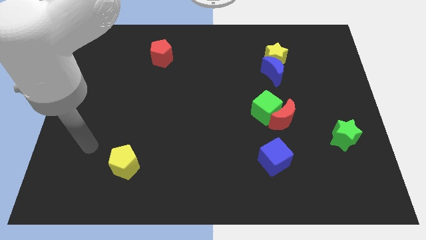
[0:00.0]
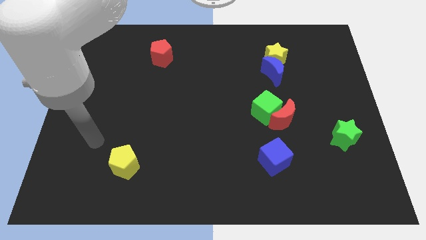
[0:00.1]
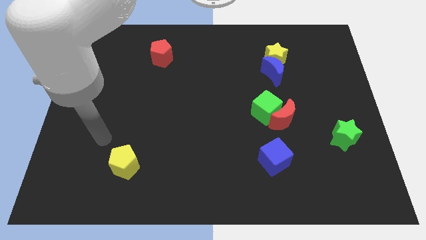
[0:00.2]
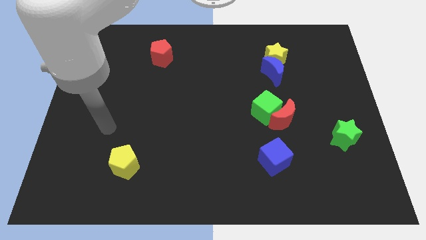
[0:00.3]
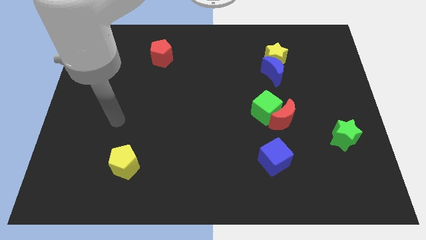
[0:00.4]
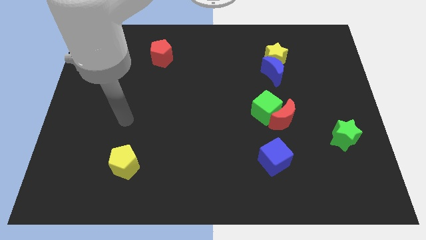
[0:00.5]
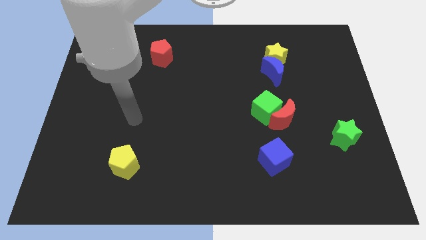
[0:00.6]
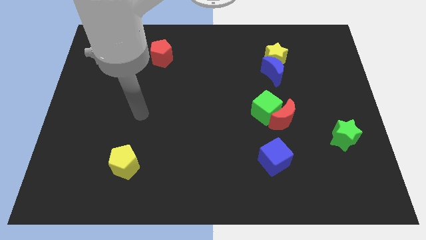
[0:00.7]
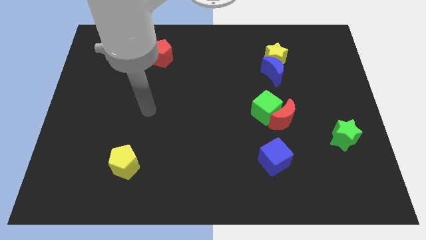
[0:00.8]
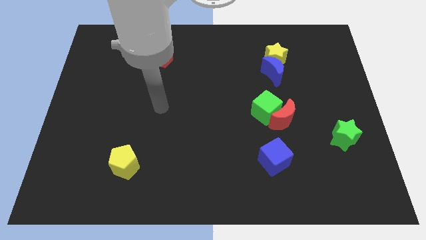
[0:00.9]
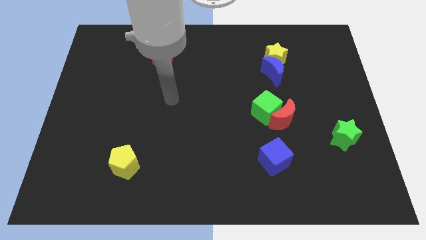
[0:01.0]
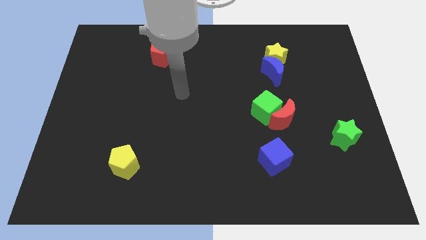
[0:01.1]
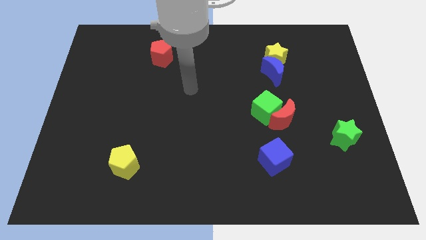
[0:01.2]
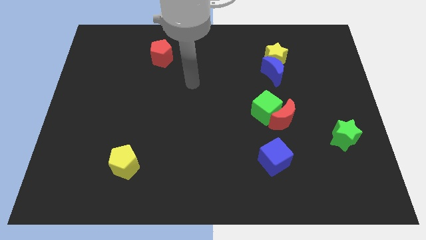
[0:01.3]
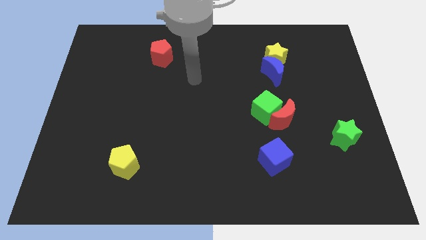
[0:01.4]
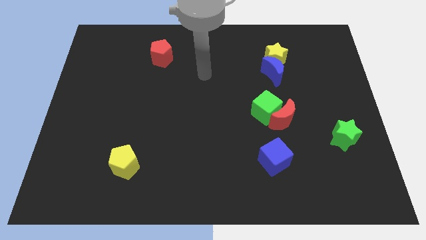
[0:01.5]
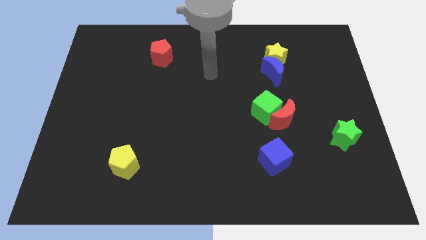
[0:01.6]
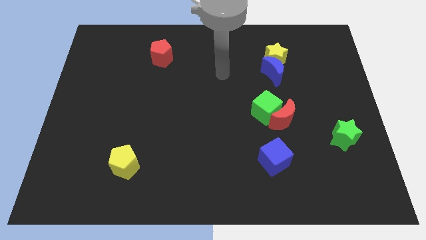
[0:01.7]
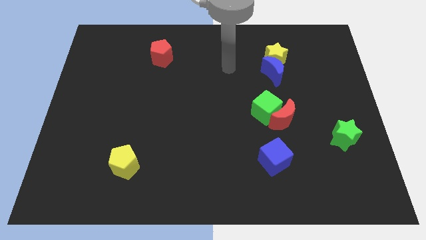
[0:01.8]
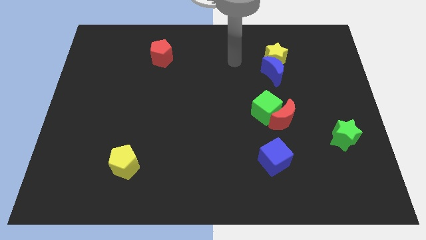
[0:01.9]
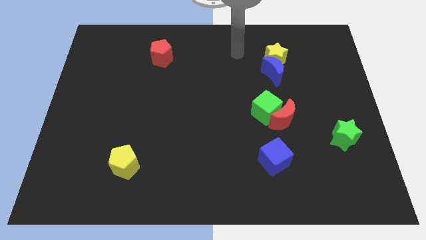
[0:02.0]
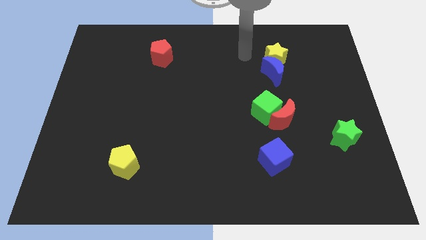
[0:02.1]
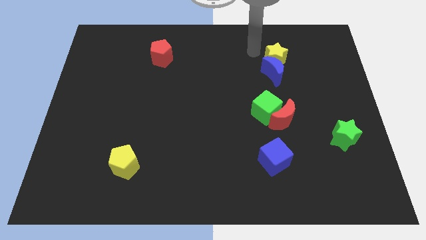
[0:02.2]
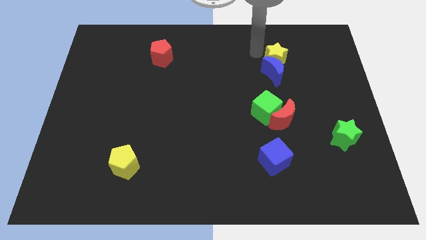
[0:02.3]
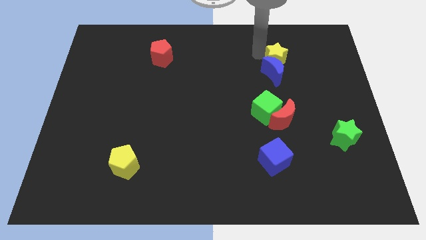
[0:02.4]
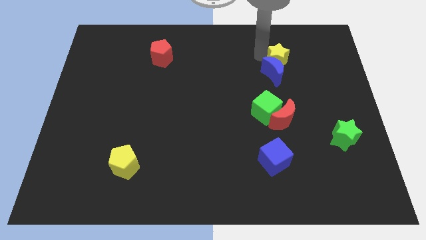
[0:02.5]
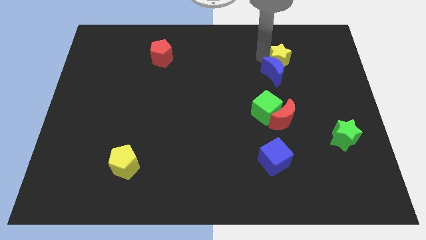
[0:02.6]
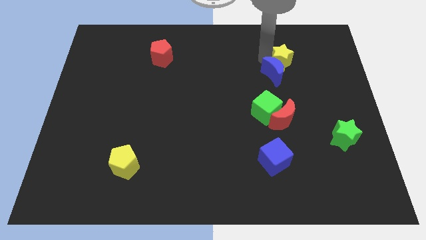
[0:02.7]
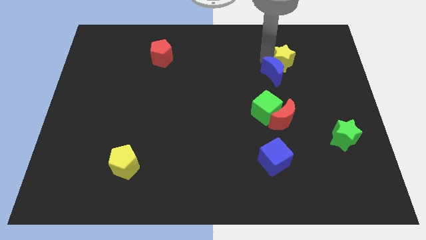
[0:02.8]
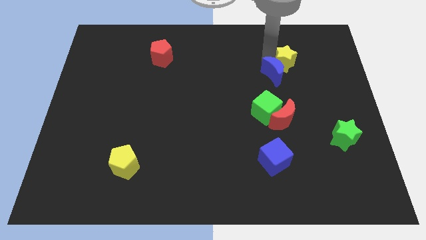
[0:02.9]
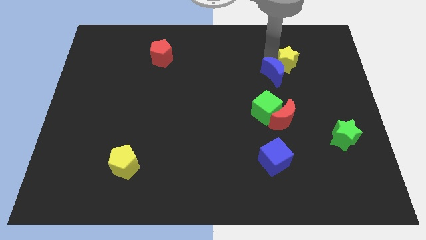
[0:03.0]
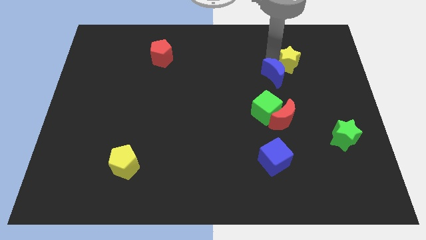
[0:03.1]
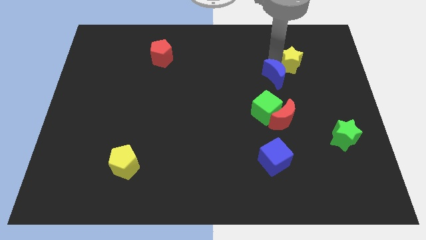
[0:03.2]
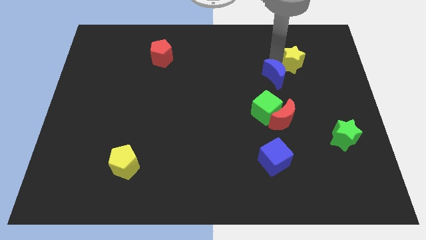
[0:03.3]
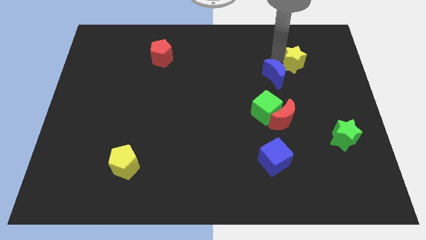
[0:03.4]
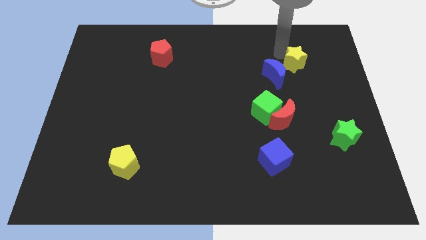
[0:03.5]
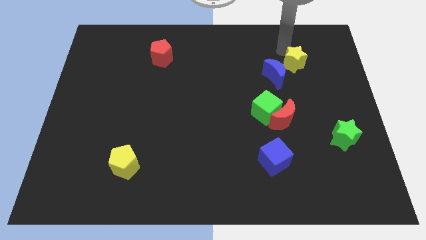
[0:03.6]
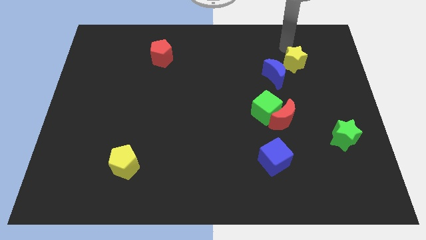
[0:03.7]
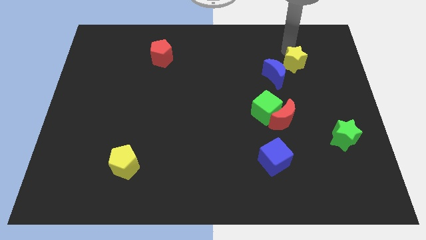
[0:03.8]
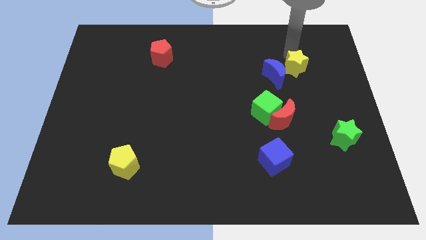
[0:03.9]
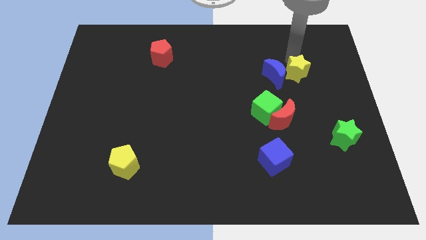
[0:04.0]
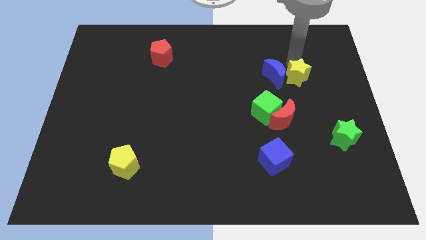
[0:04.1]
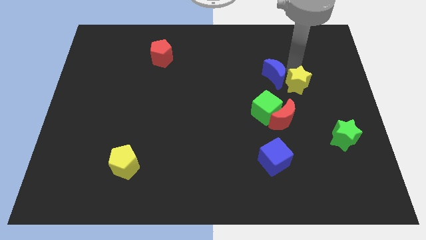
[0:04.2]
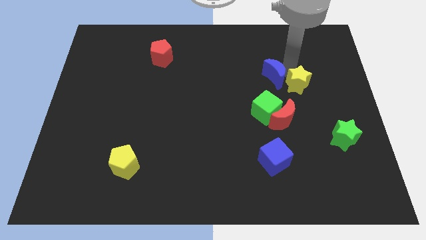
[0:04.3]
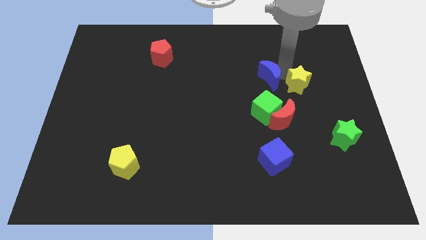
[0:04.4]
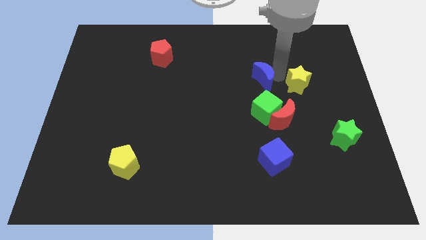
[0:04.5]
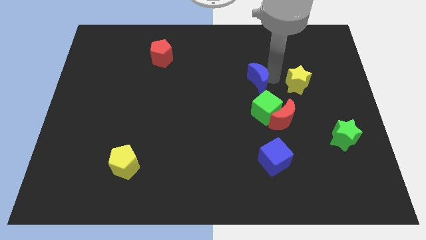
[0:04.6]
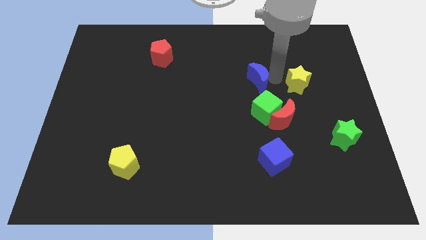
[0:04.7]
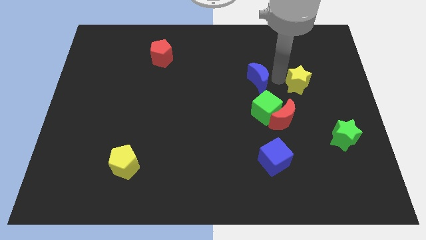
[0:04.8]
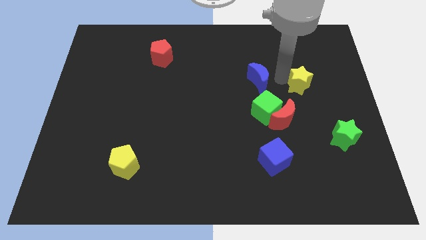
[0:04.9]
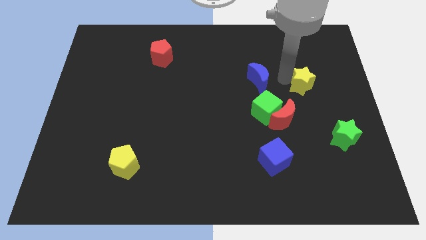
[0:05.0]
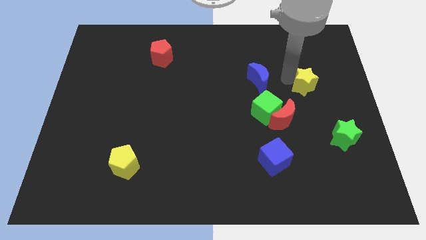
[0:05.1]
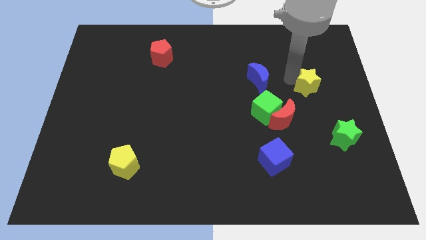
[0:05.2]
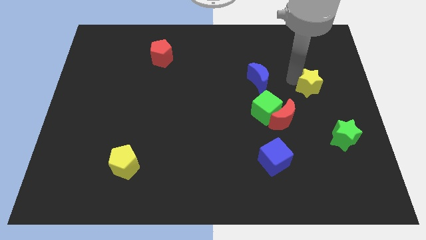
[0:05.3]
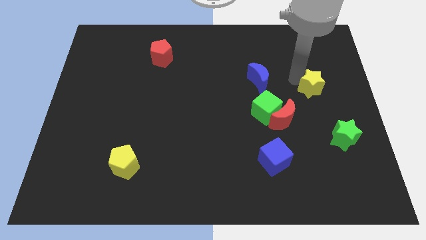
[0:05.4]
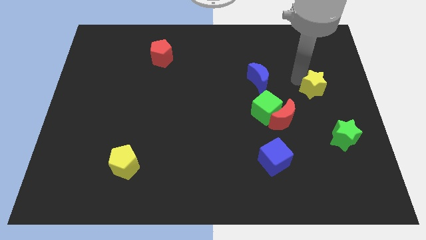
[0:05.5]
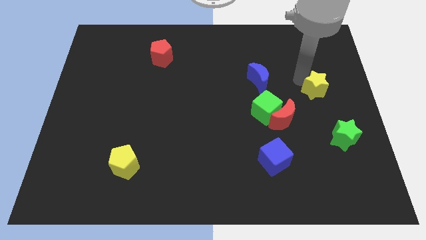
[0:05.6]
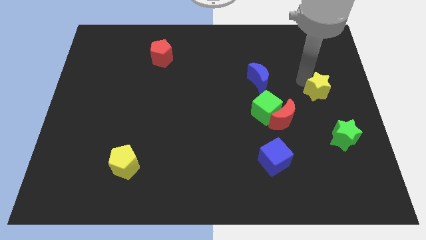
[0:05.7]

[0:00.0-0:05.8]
put the yellow star to the right side
